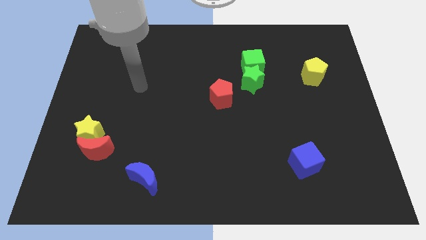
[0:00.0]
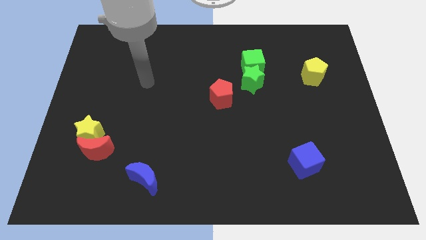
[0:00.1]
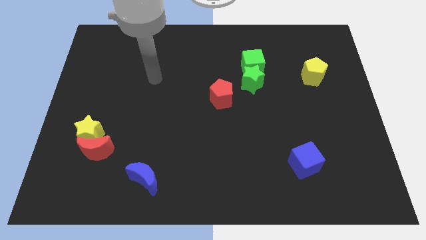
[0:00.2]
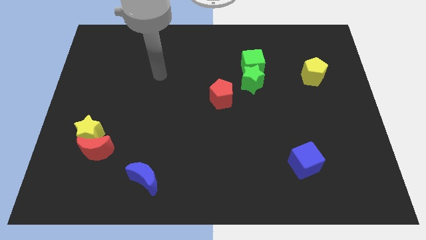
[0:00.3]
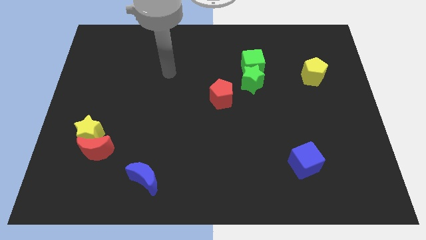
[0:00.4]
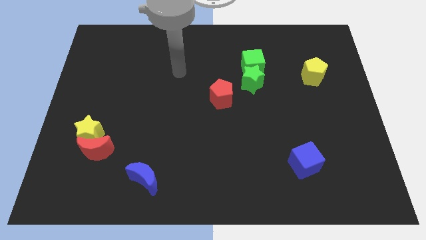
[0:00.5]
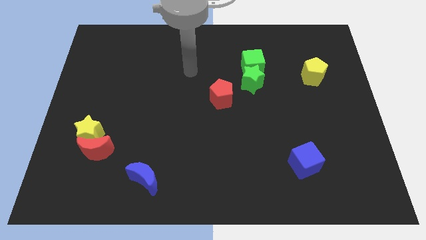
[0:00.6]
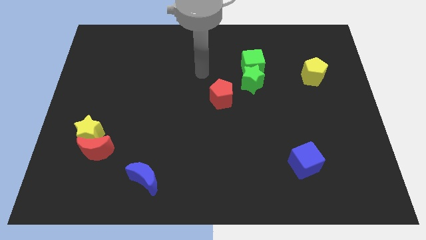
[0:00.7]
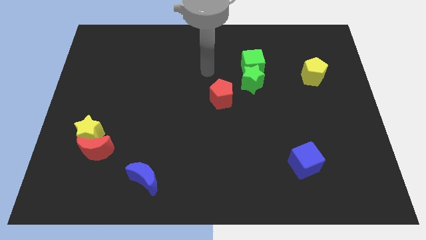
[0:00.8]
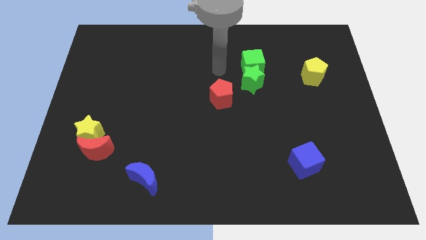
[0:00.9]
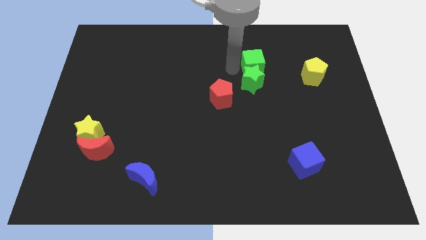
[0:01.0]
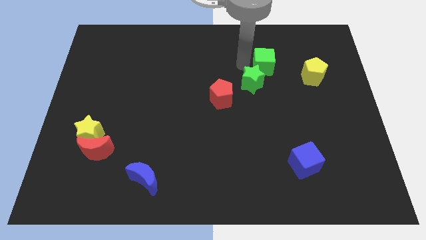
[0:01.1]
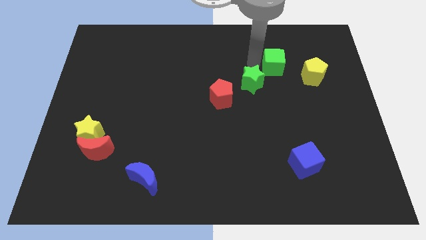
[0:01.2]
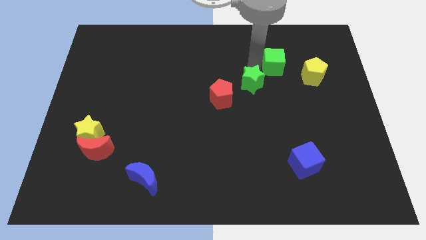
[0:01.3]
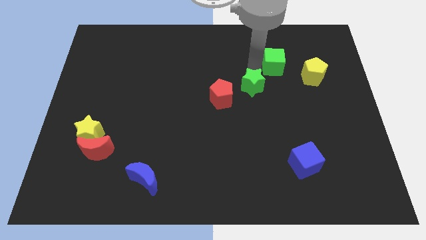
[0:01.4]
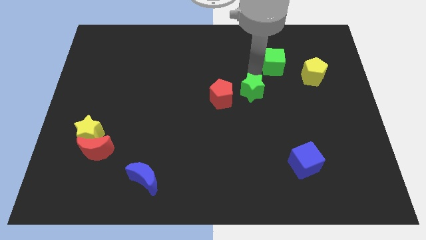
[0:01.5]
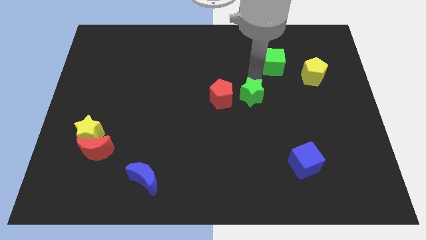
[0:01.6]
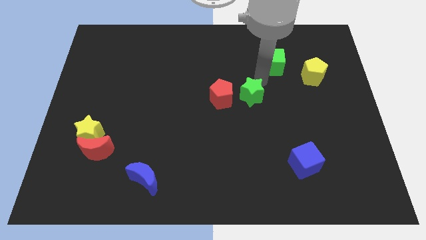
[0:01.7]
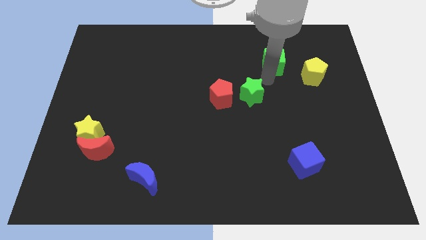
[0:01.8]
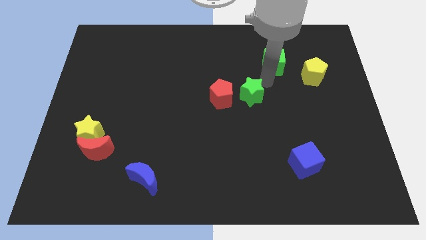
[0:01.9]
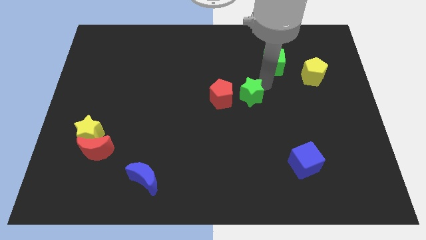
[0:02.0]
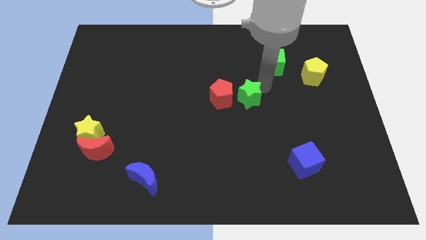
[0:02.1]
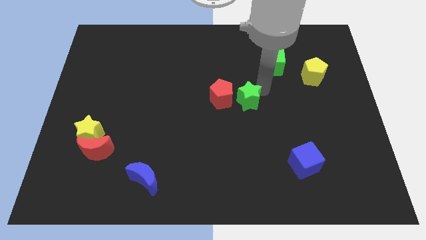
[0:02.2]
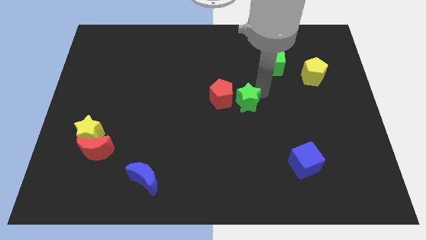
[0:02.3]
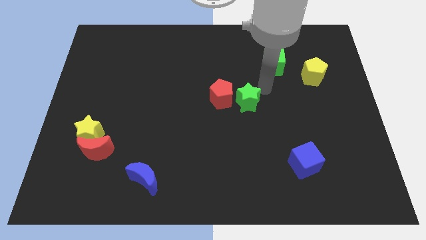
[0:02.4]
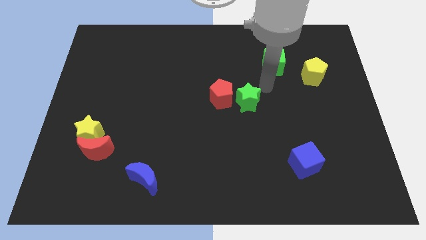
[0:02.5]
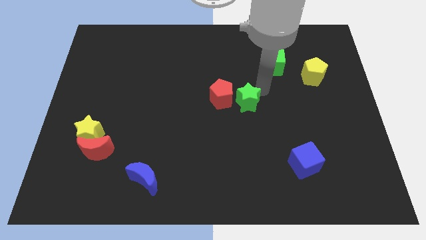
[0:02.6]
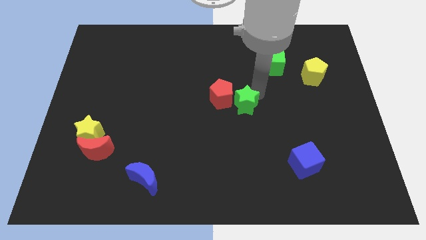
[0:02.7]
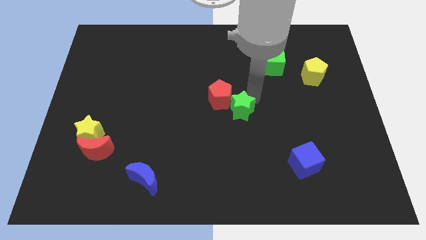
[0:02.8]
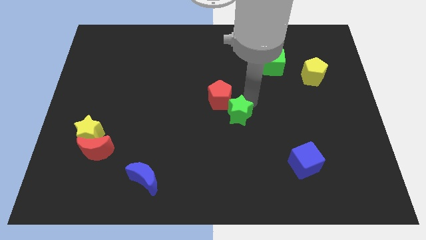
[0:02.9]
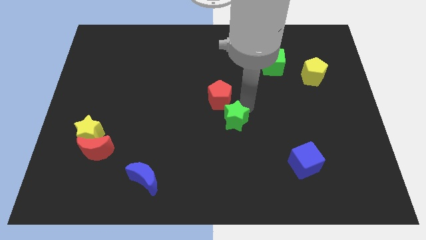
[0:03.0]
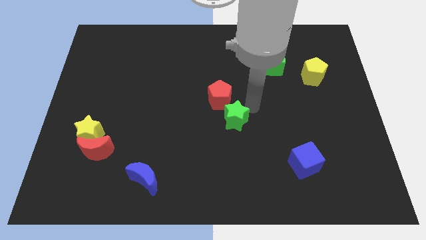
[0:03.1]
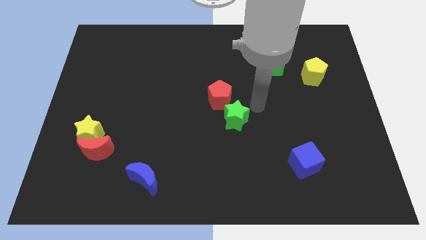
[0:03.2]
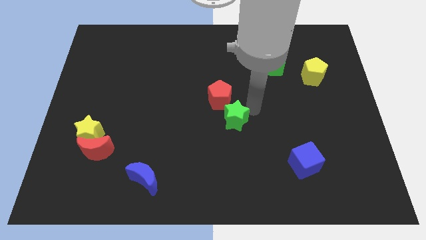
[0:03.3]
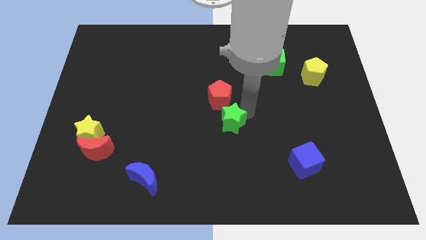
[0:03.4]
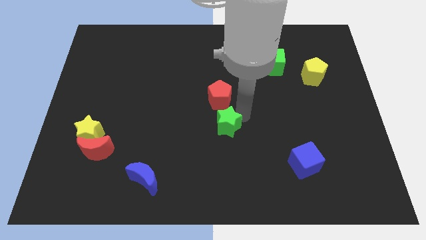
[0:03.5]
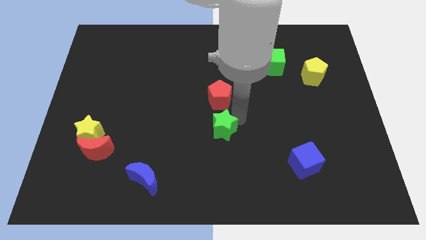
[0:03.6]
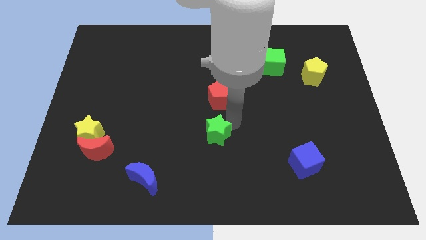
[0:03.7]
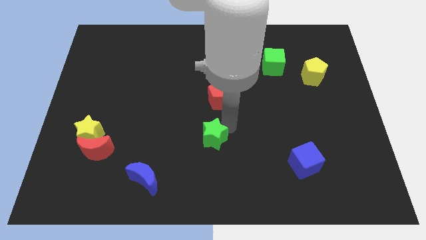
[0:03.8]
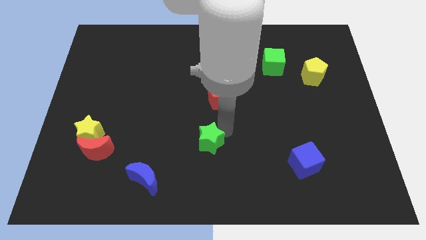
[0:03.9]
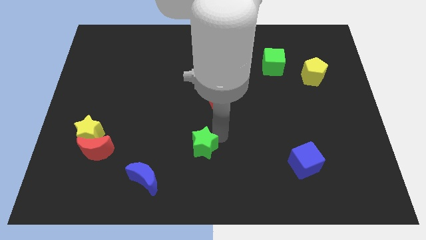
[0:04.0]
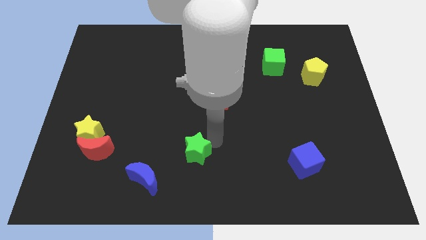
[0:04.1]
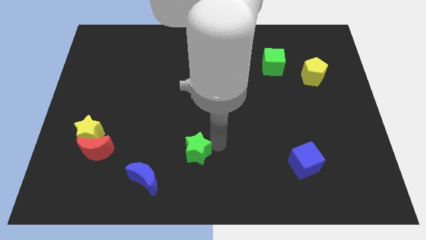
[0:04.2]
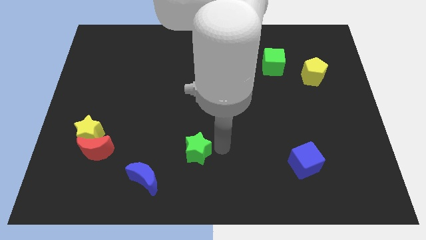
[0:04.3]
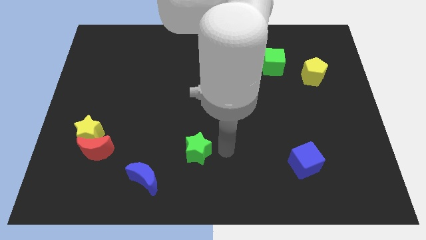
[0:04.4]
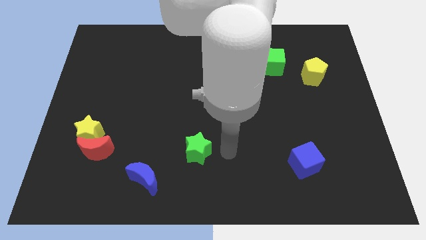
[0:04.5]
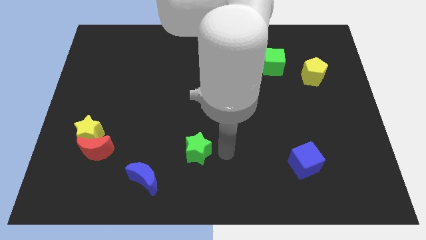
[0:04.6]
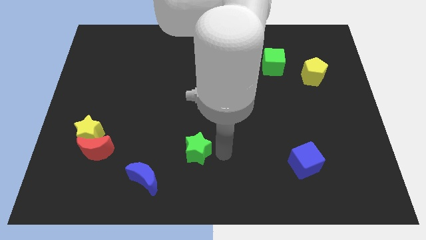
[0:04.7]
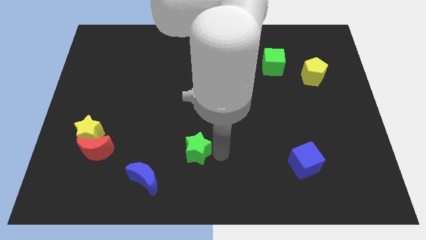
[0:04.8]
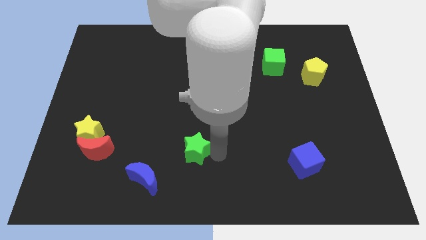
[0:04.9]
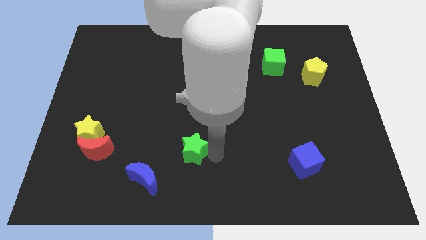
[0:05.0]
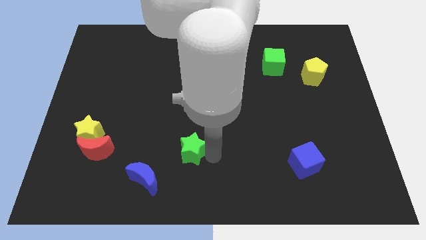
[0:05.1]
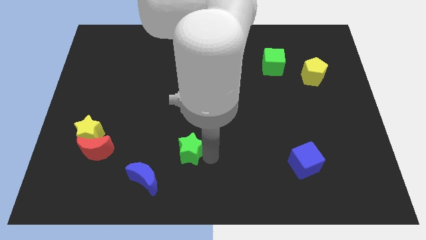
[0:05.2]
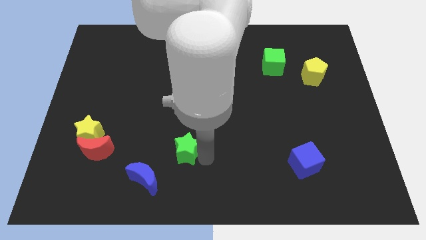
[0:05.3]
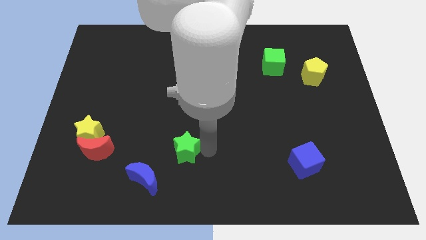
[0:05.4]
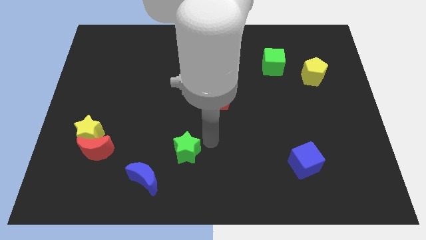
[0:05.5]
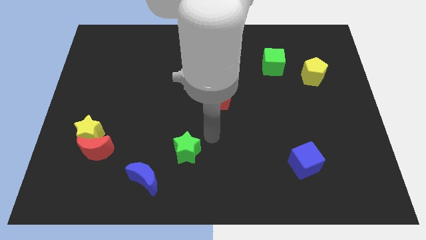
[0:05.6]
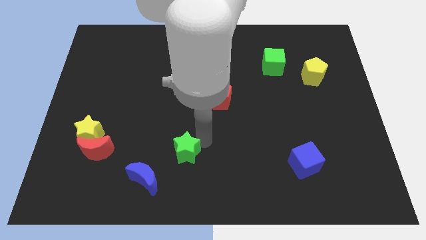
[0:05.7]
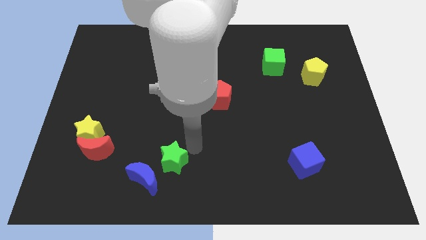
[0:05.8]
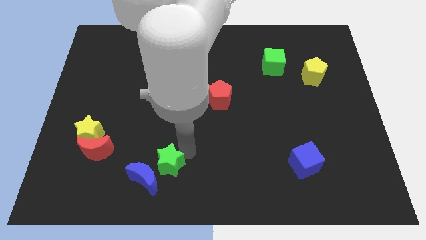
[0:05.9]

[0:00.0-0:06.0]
push the green star close to the blue moon
